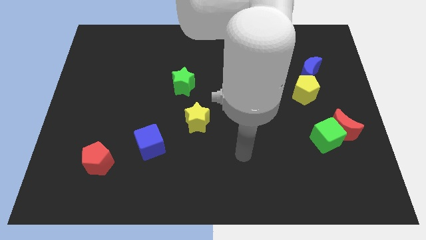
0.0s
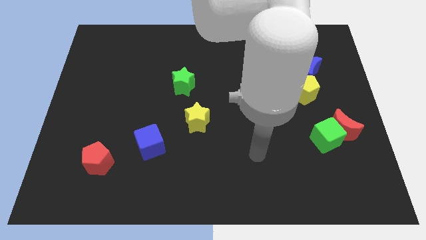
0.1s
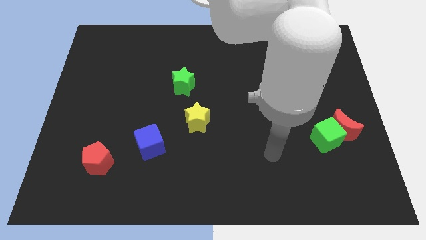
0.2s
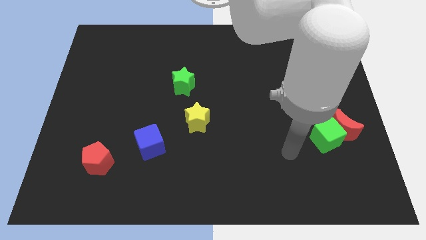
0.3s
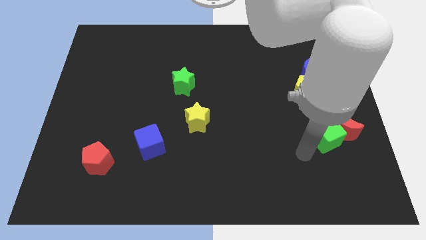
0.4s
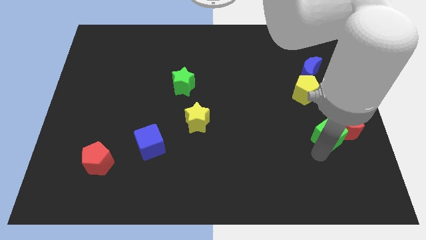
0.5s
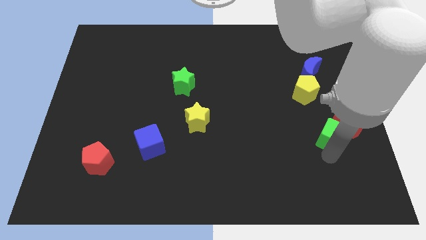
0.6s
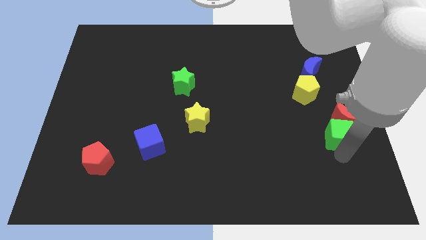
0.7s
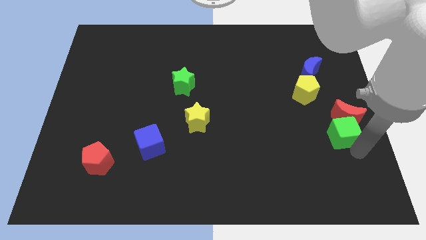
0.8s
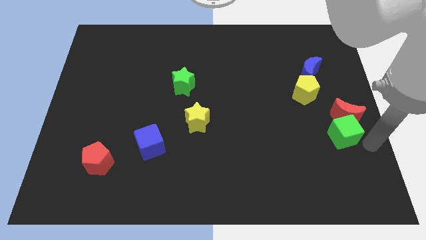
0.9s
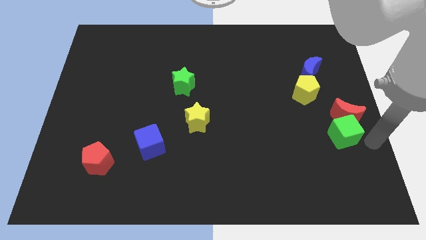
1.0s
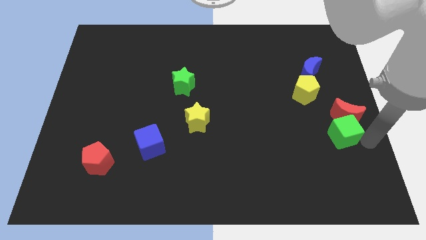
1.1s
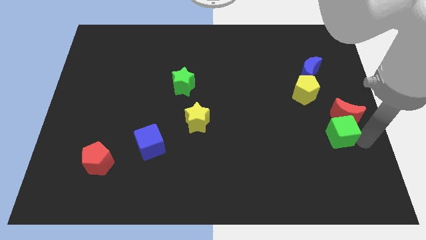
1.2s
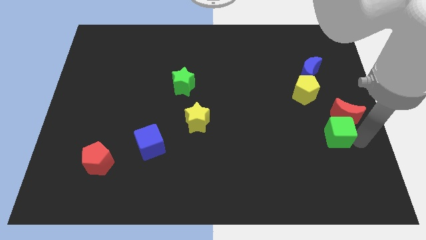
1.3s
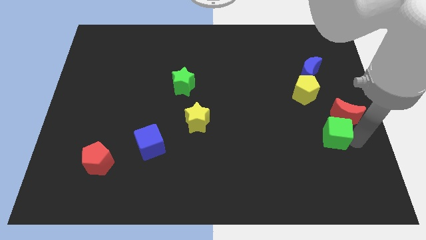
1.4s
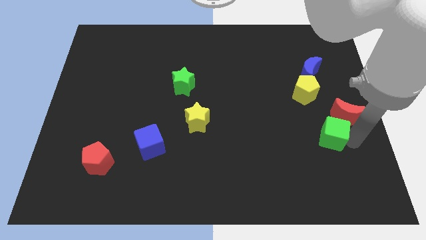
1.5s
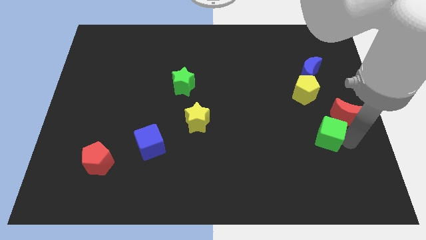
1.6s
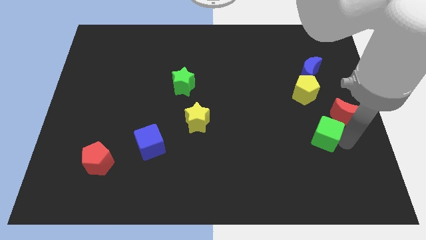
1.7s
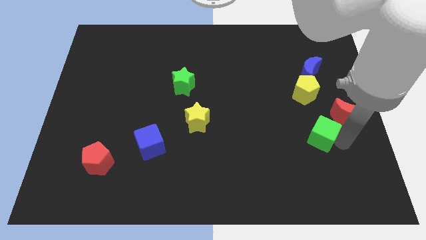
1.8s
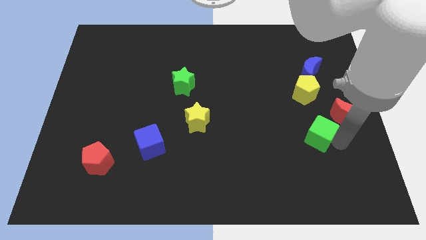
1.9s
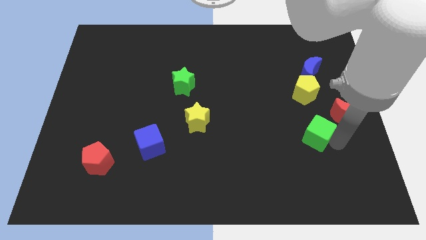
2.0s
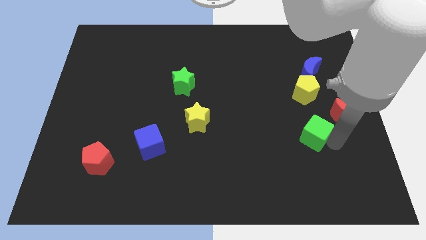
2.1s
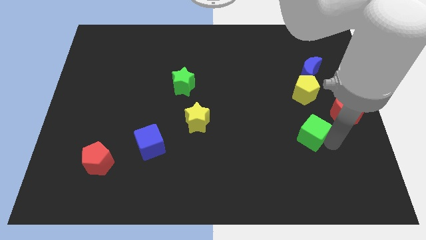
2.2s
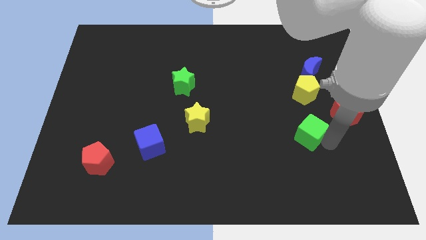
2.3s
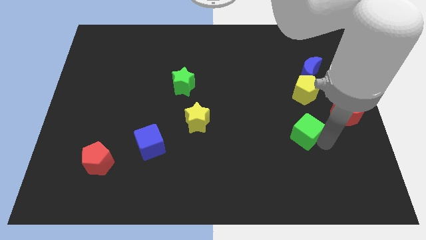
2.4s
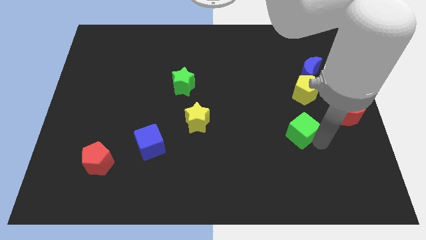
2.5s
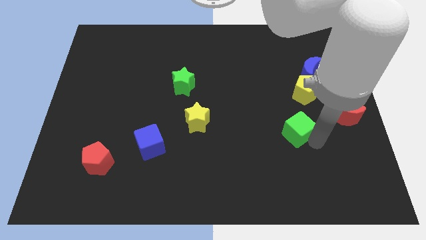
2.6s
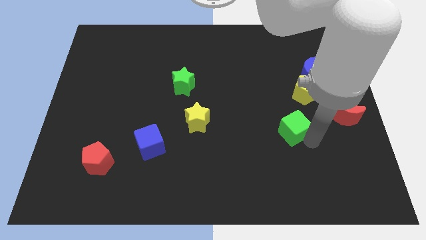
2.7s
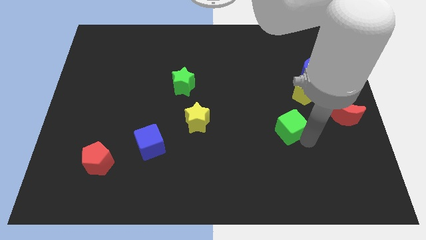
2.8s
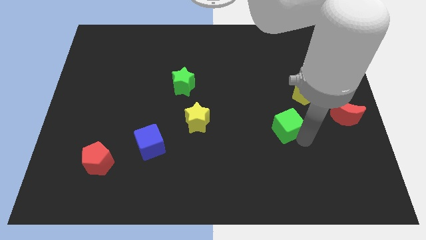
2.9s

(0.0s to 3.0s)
slightly slide the green cube upwards and to the left

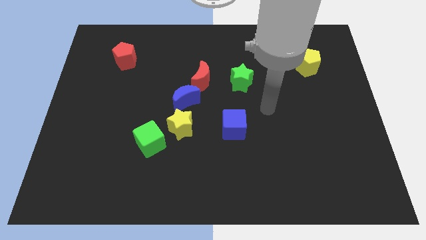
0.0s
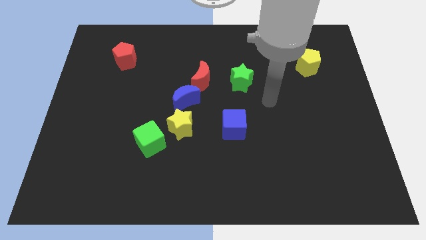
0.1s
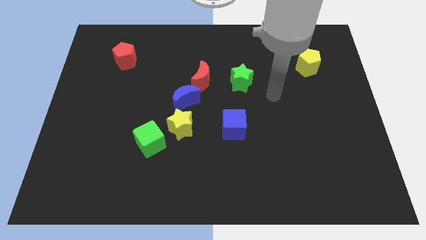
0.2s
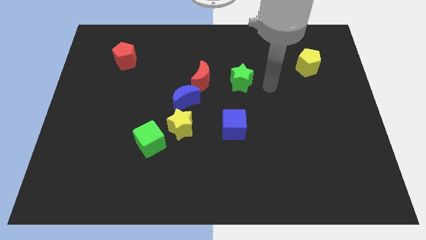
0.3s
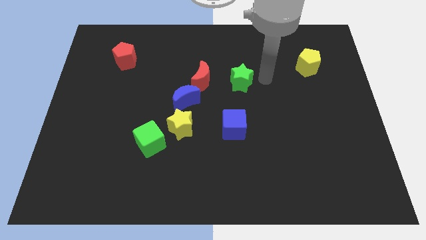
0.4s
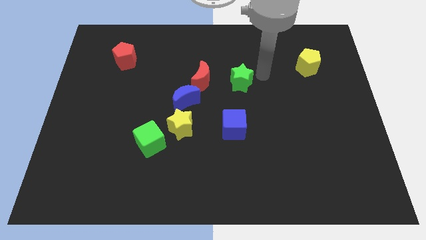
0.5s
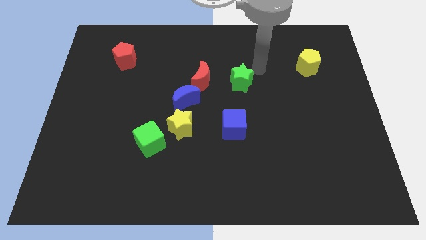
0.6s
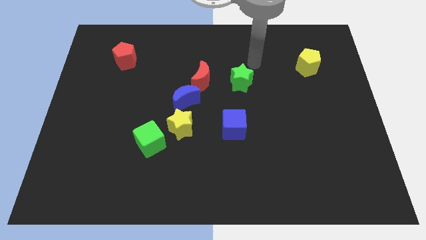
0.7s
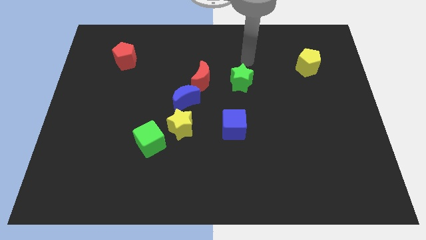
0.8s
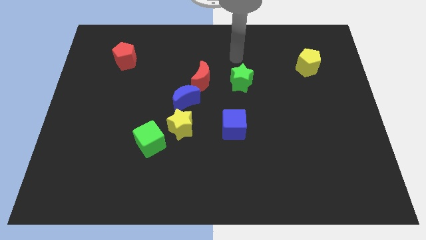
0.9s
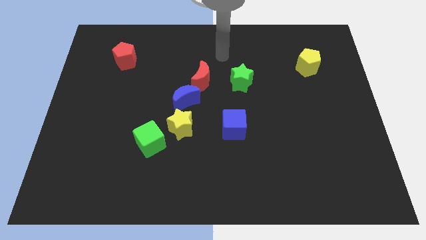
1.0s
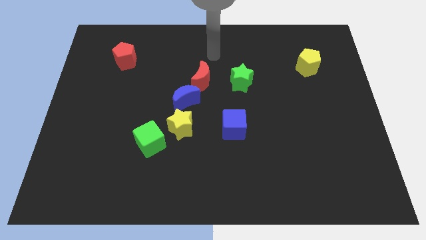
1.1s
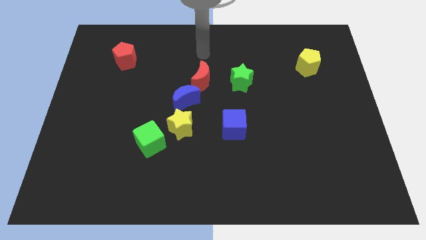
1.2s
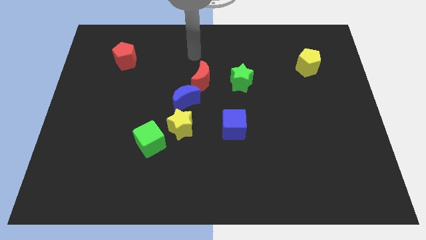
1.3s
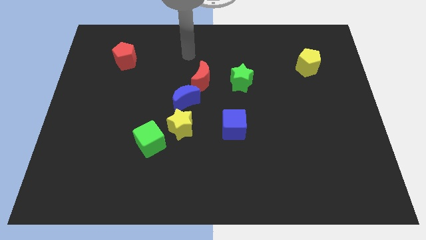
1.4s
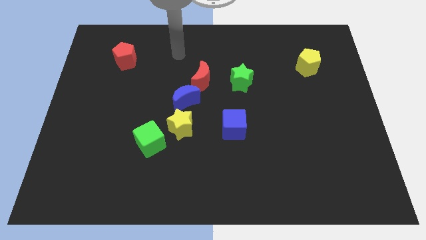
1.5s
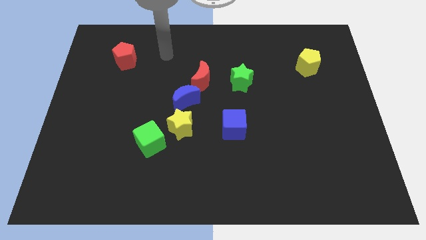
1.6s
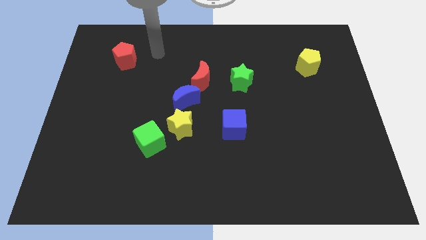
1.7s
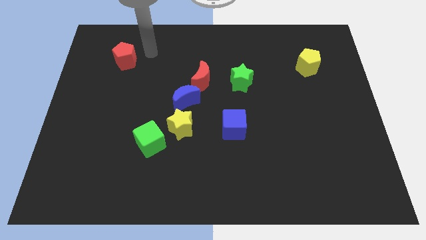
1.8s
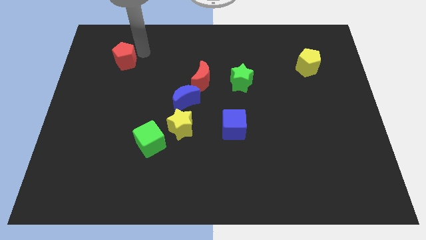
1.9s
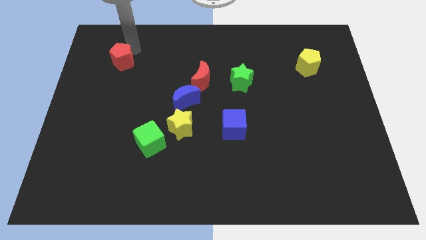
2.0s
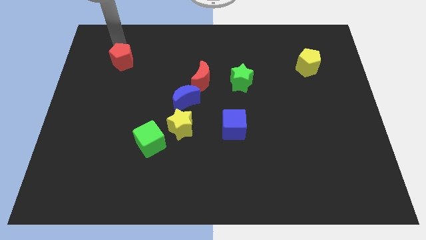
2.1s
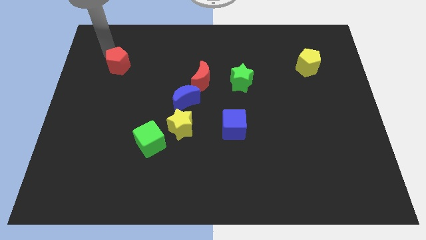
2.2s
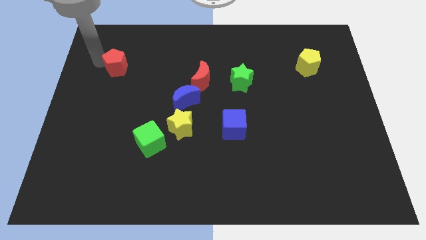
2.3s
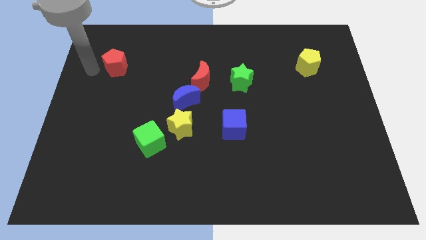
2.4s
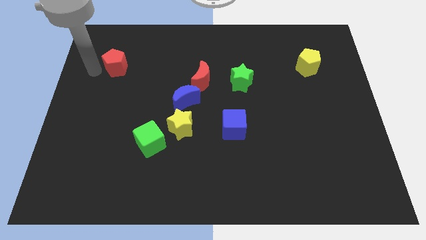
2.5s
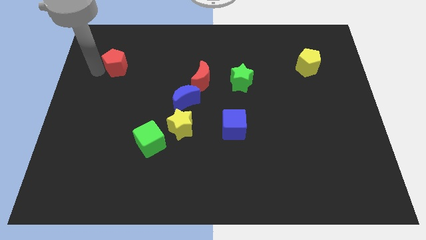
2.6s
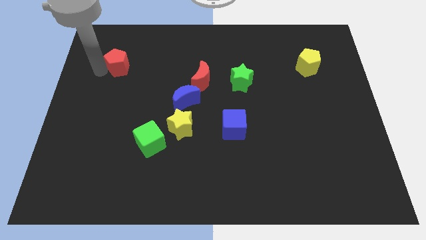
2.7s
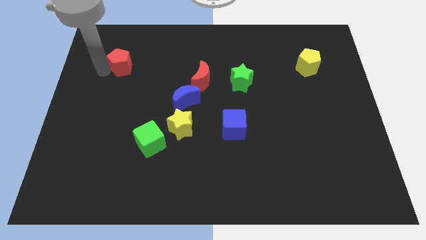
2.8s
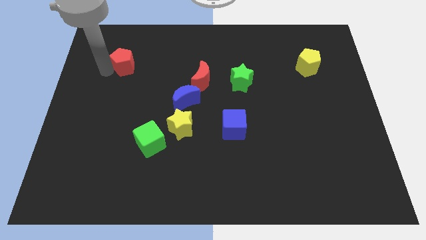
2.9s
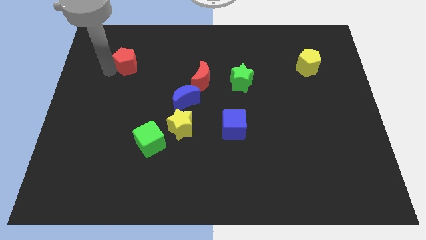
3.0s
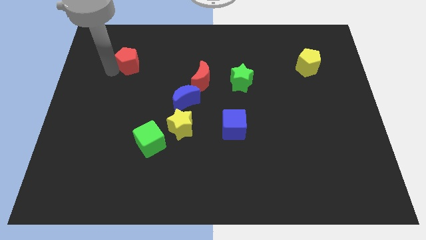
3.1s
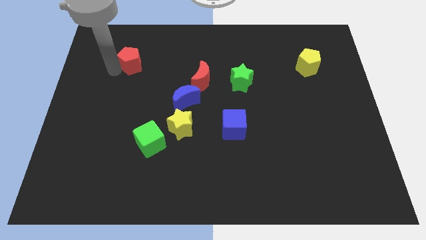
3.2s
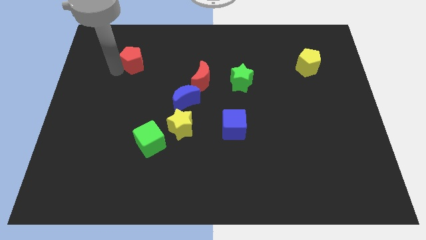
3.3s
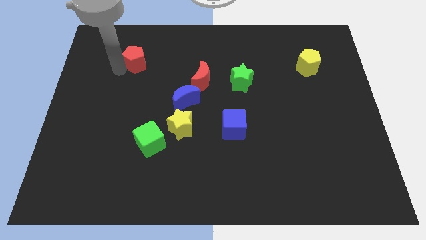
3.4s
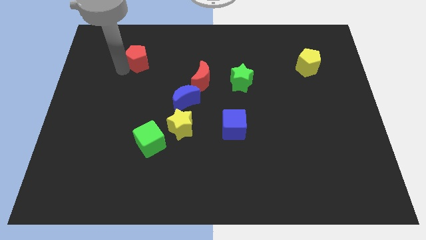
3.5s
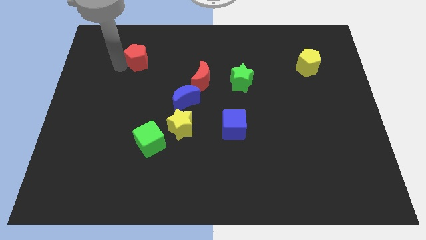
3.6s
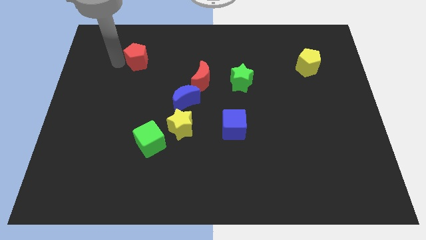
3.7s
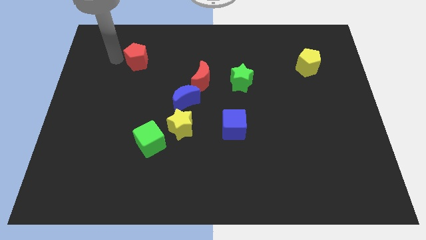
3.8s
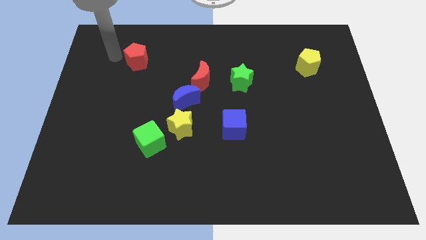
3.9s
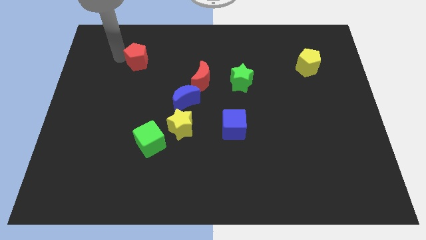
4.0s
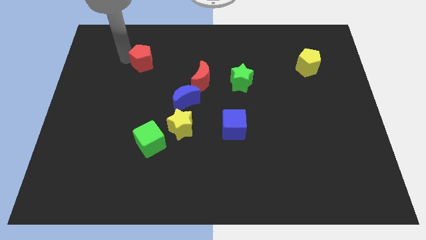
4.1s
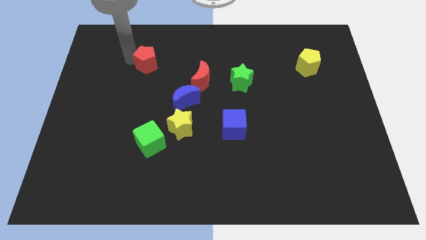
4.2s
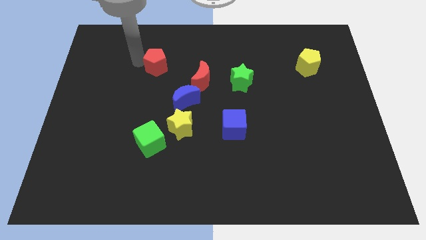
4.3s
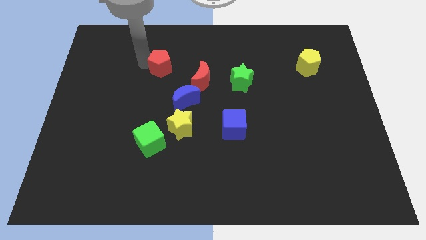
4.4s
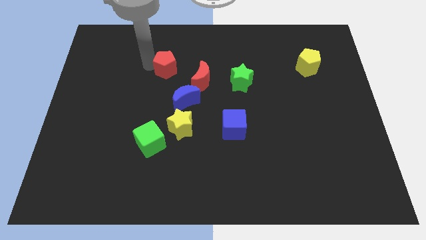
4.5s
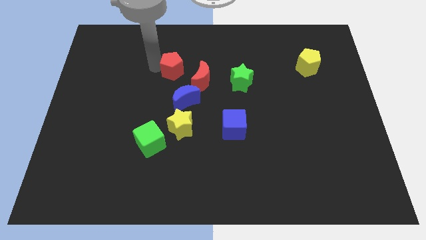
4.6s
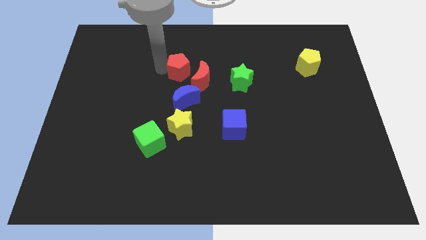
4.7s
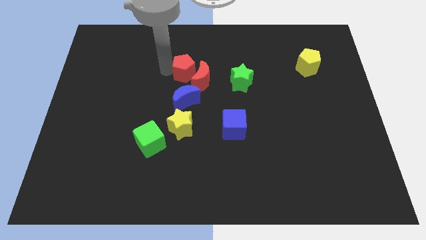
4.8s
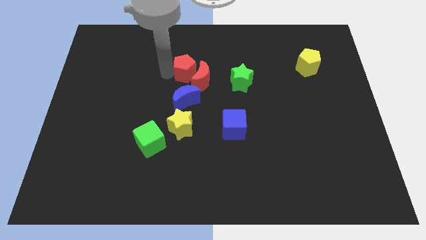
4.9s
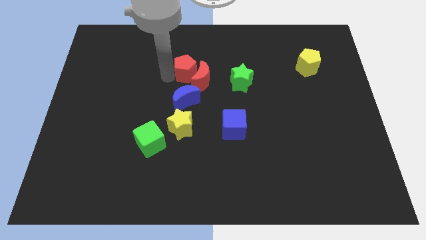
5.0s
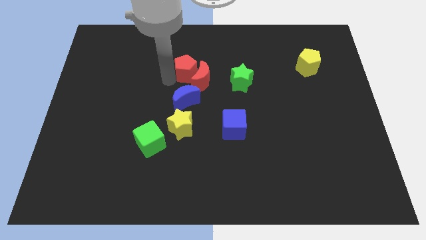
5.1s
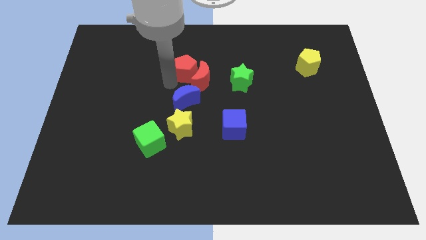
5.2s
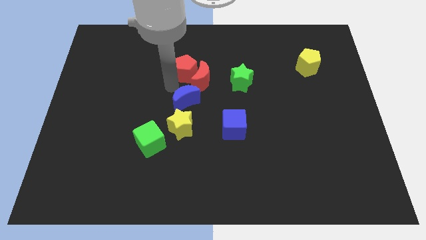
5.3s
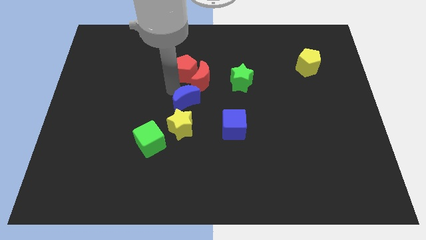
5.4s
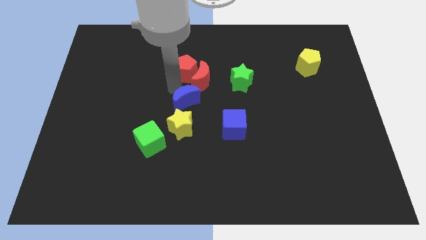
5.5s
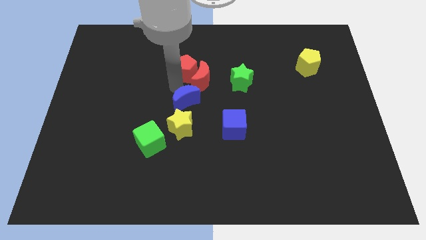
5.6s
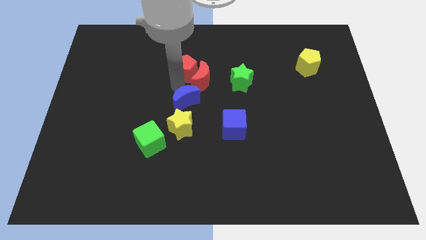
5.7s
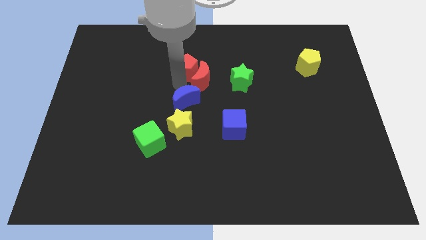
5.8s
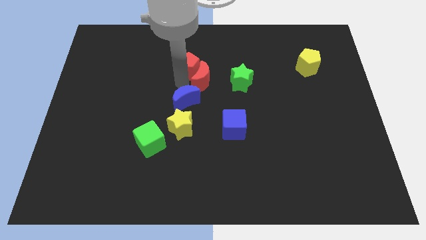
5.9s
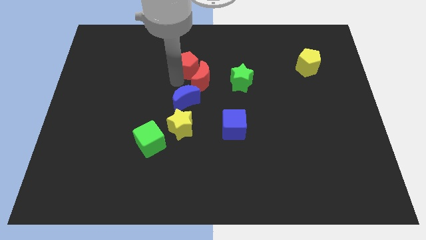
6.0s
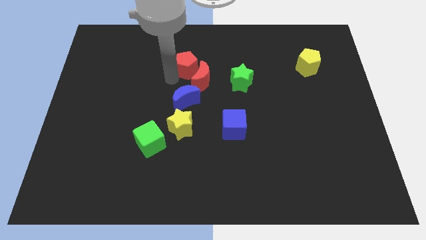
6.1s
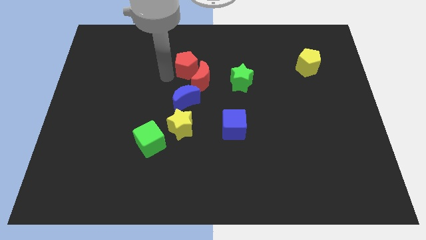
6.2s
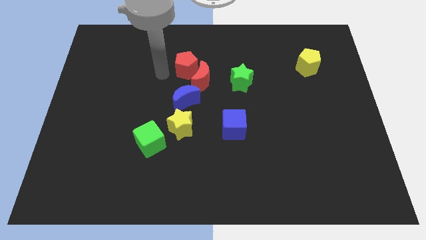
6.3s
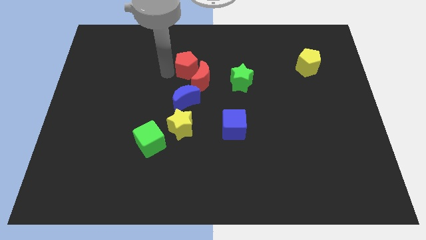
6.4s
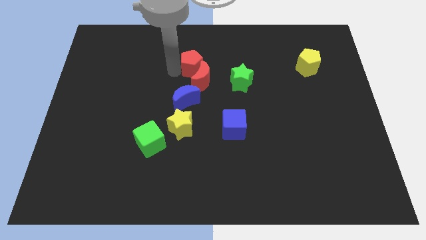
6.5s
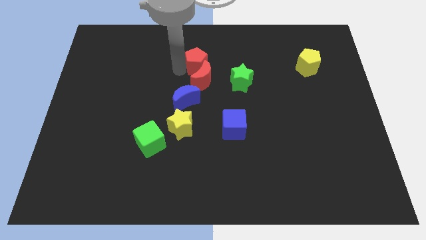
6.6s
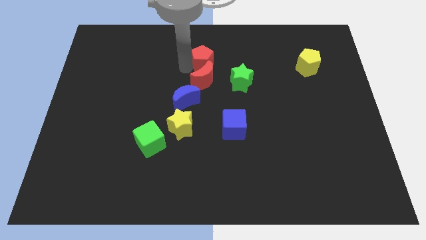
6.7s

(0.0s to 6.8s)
push the red pentagon right
